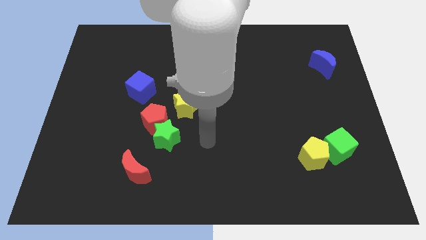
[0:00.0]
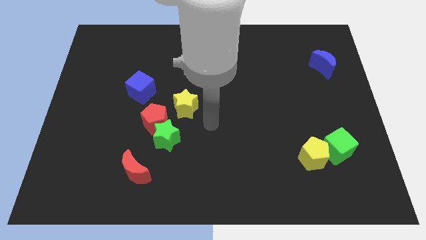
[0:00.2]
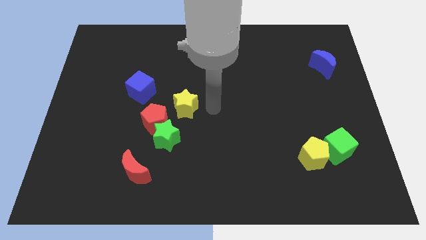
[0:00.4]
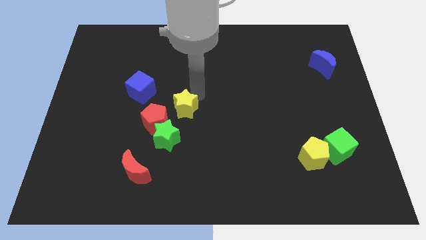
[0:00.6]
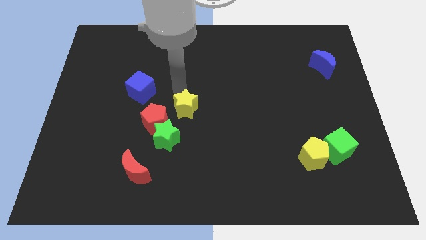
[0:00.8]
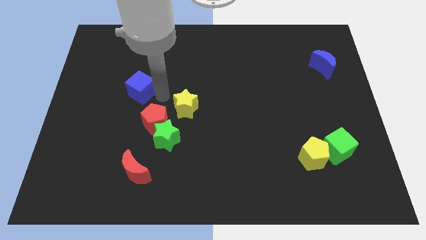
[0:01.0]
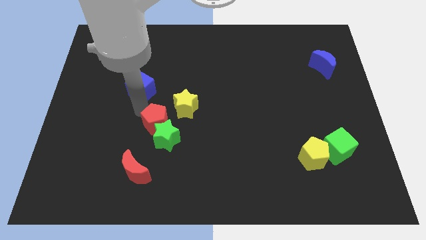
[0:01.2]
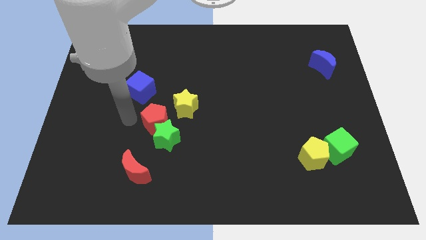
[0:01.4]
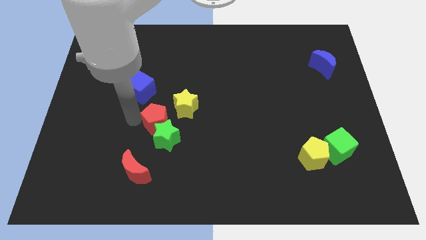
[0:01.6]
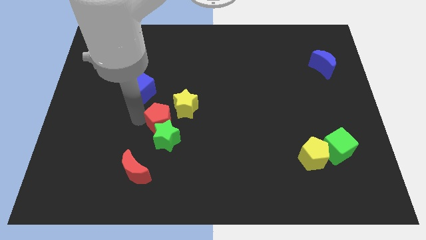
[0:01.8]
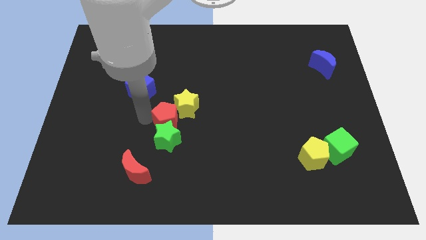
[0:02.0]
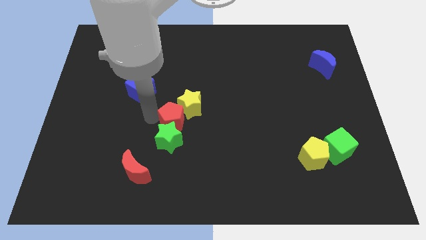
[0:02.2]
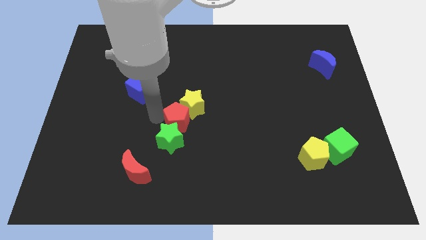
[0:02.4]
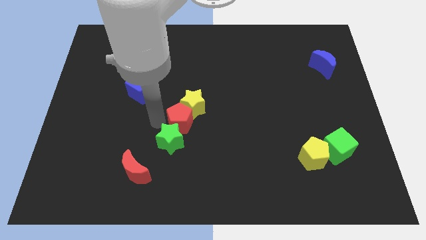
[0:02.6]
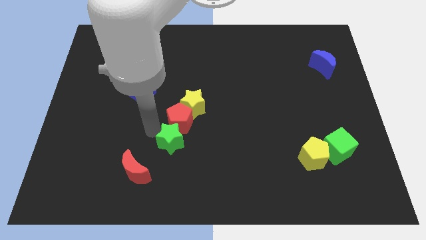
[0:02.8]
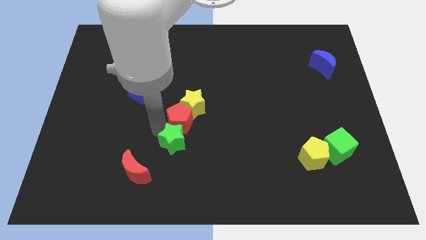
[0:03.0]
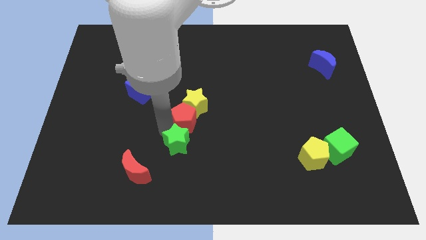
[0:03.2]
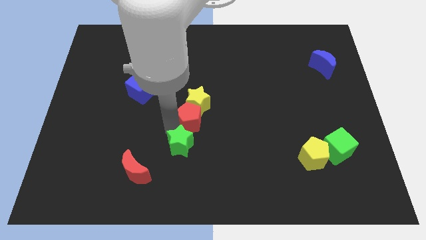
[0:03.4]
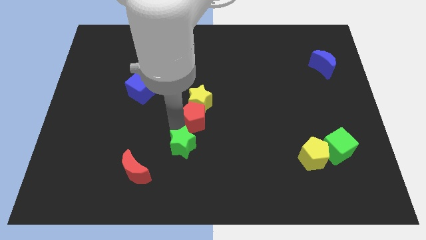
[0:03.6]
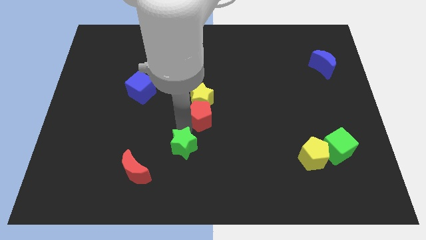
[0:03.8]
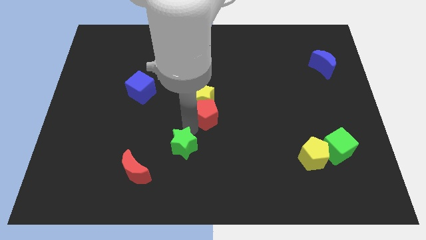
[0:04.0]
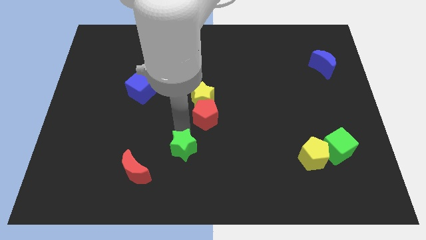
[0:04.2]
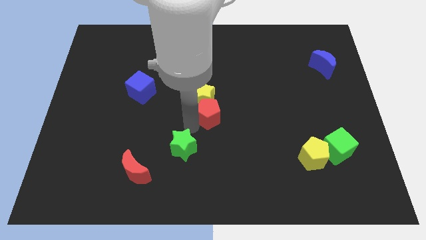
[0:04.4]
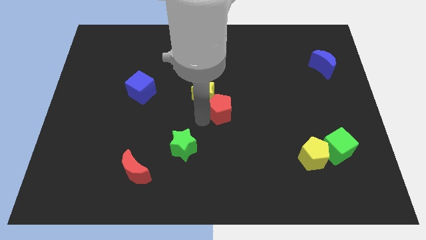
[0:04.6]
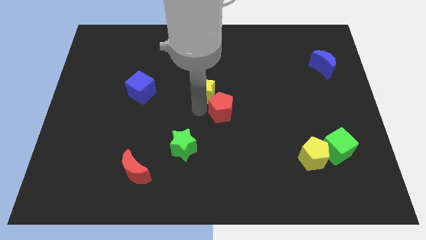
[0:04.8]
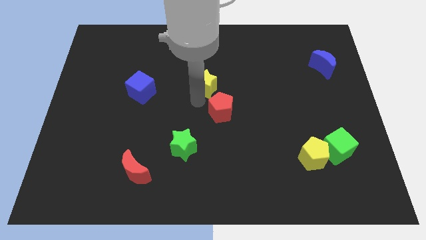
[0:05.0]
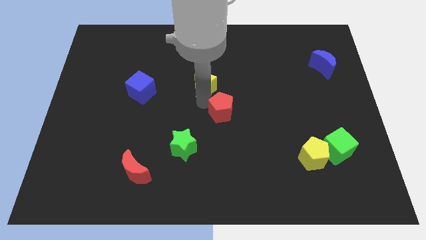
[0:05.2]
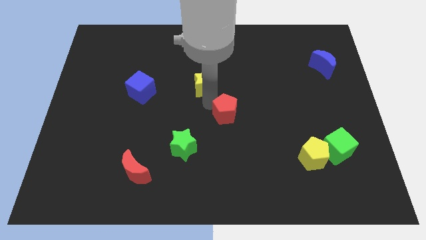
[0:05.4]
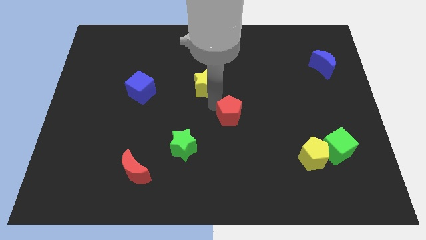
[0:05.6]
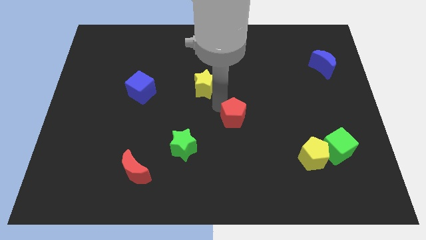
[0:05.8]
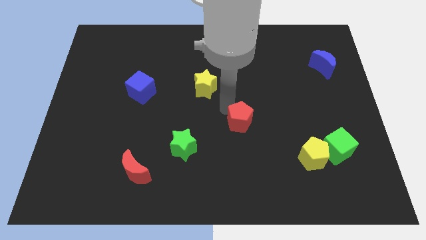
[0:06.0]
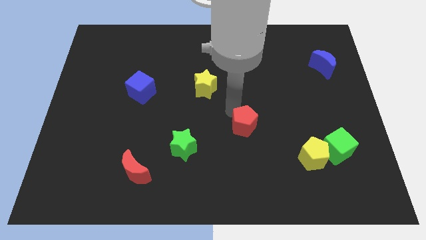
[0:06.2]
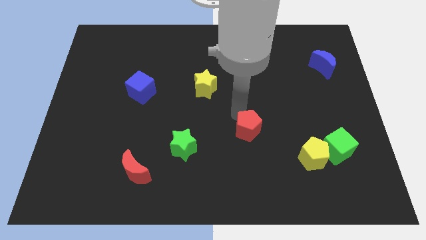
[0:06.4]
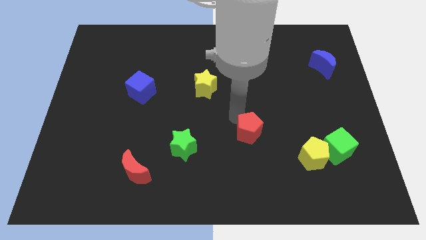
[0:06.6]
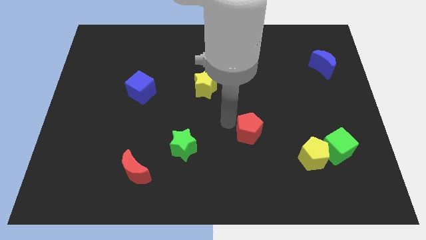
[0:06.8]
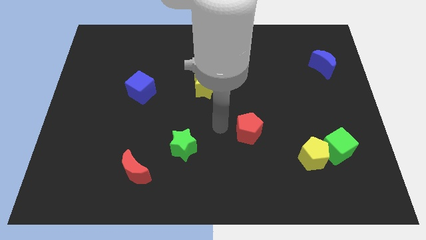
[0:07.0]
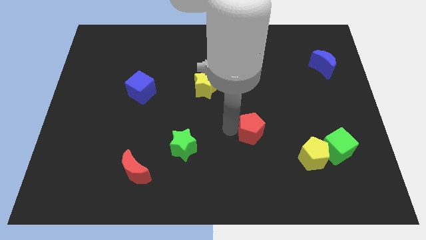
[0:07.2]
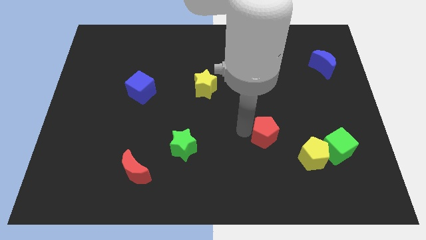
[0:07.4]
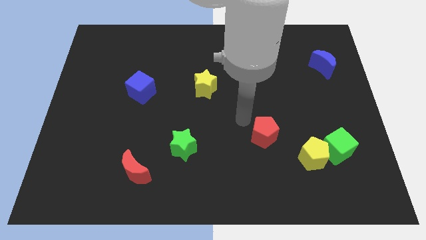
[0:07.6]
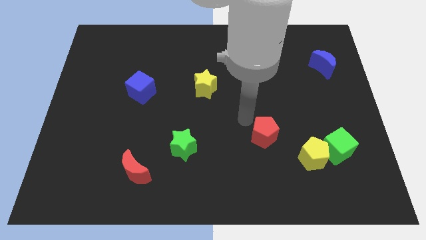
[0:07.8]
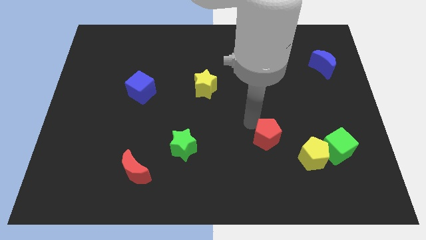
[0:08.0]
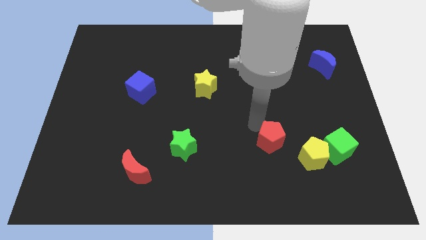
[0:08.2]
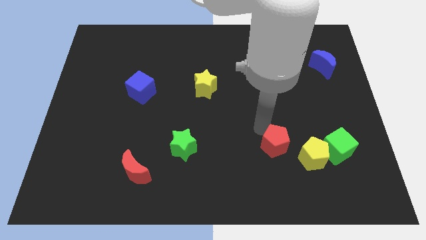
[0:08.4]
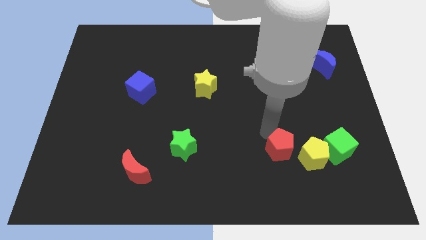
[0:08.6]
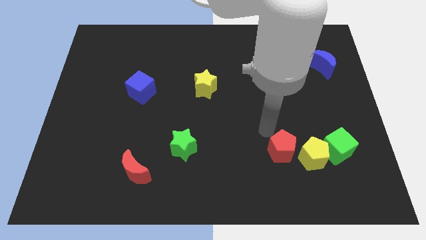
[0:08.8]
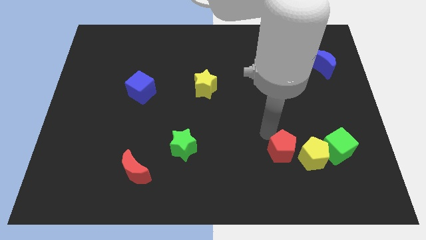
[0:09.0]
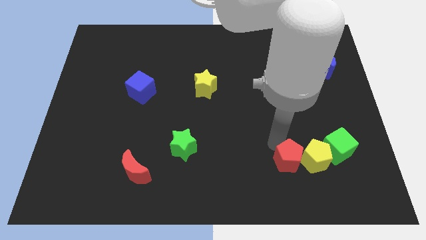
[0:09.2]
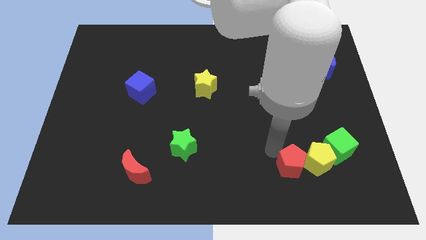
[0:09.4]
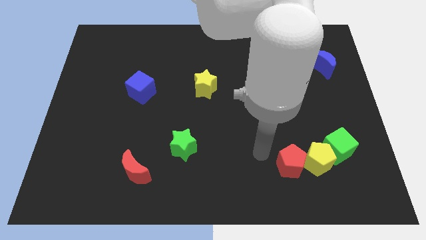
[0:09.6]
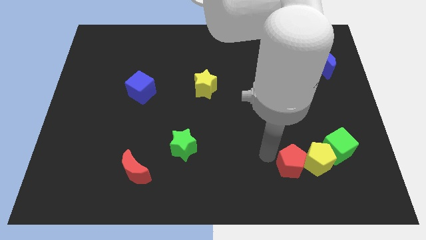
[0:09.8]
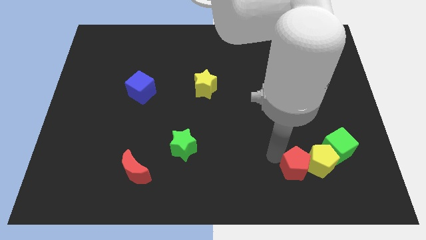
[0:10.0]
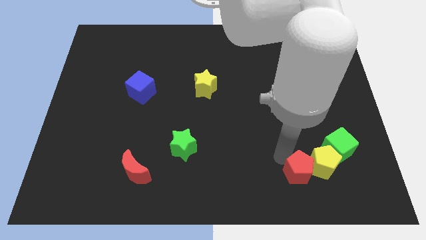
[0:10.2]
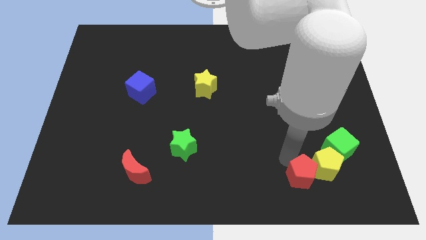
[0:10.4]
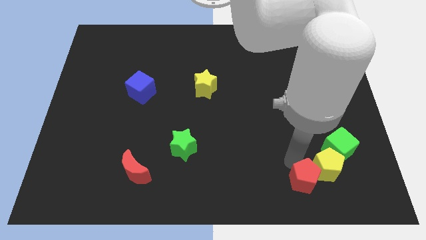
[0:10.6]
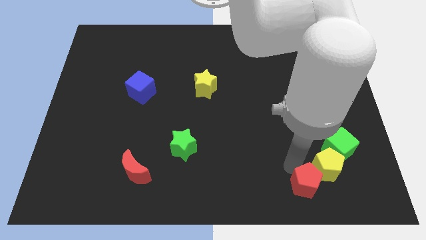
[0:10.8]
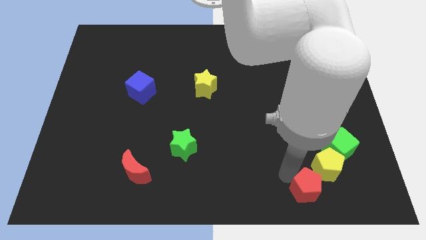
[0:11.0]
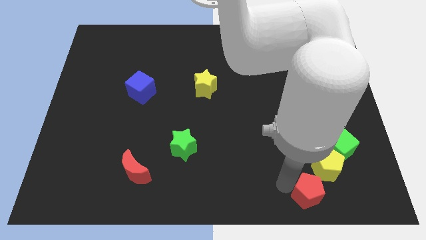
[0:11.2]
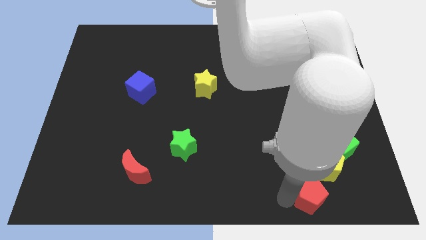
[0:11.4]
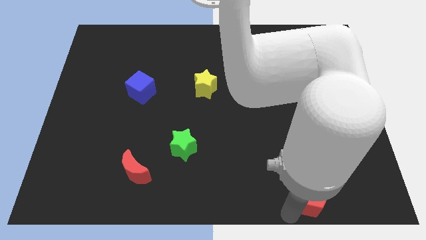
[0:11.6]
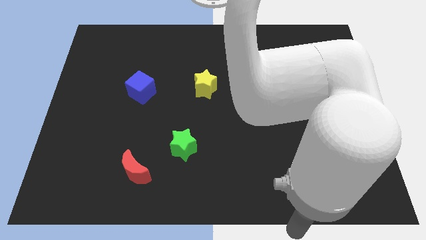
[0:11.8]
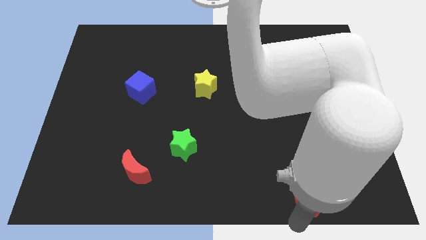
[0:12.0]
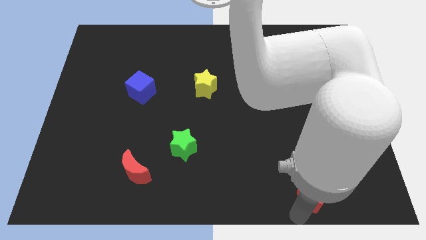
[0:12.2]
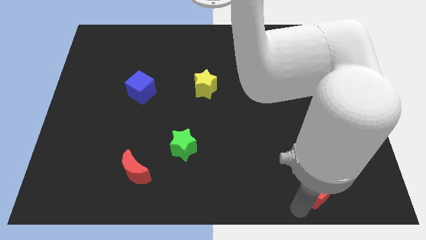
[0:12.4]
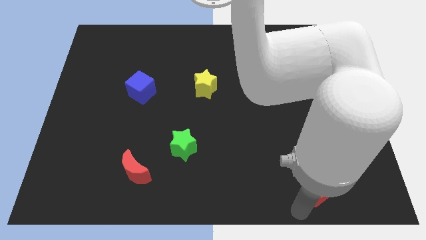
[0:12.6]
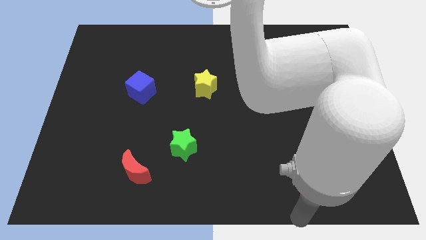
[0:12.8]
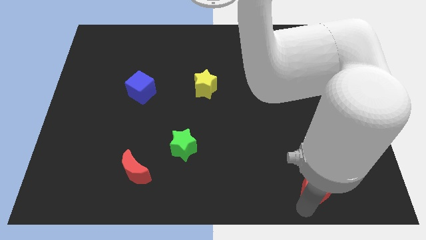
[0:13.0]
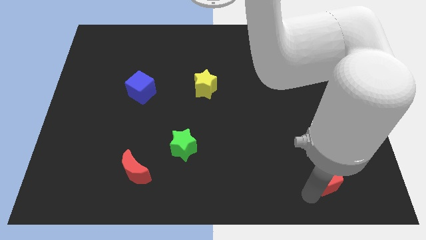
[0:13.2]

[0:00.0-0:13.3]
move the red pentagon diagonally down and to the right of the yellow pentagon
